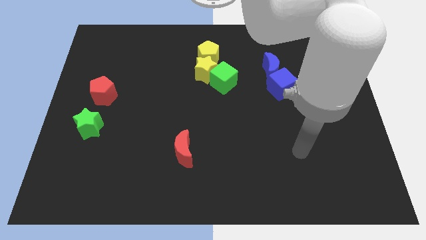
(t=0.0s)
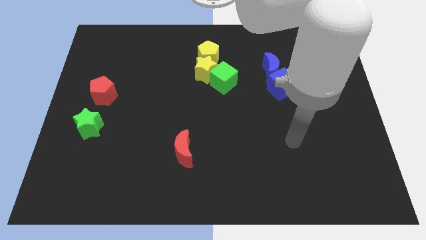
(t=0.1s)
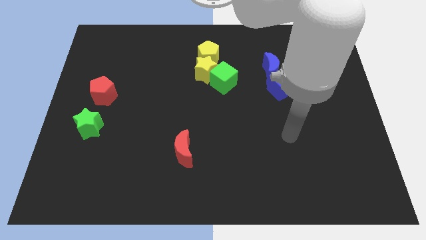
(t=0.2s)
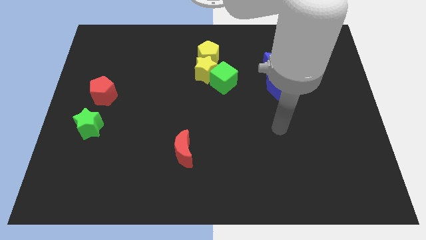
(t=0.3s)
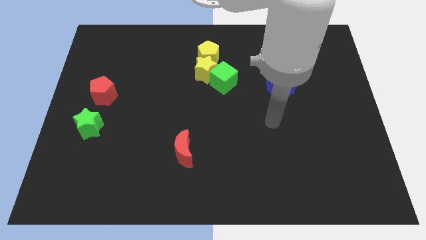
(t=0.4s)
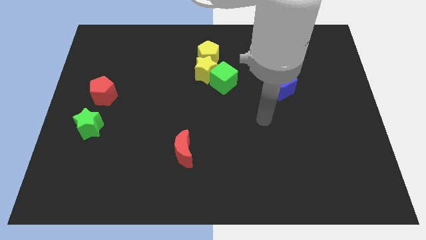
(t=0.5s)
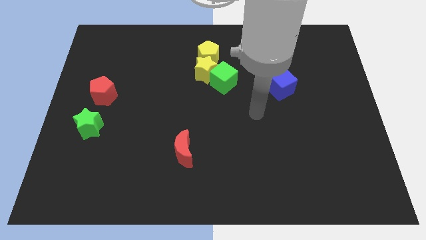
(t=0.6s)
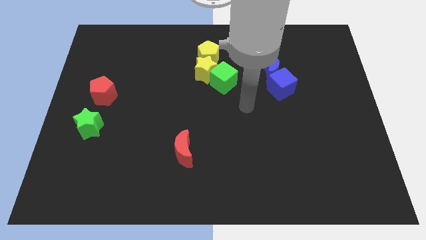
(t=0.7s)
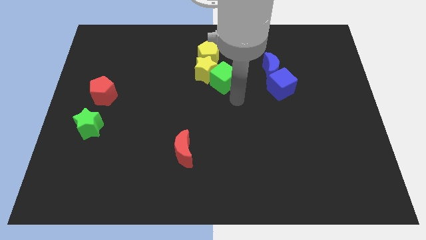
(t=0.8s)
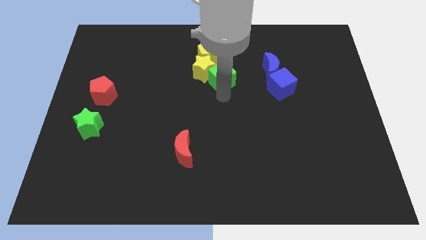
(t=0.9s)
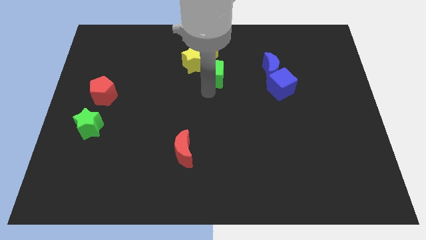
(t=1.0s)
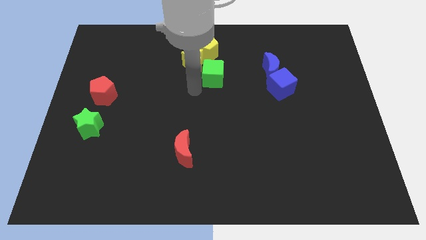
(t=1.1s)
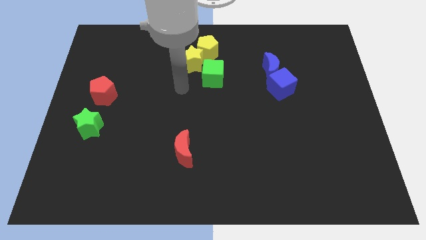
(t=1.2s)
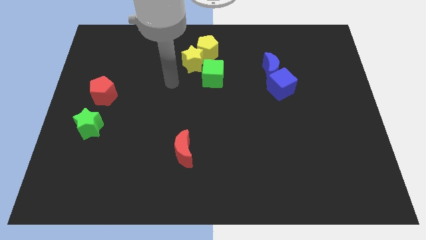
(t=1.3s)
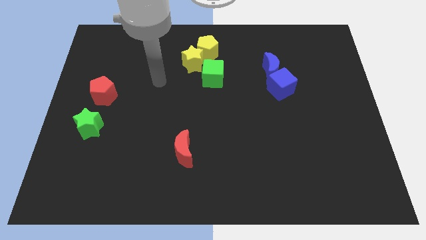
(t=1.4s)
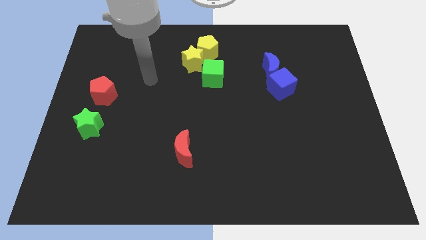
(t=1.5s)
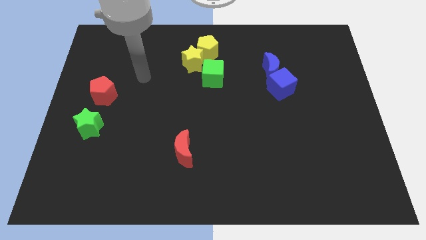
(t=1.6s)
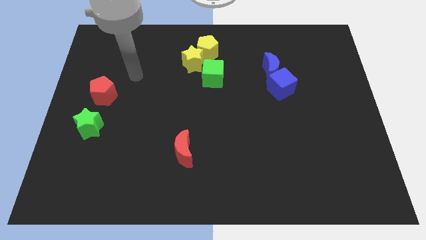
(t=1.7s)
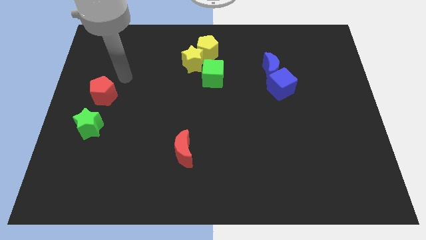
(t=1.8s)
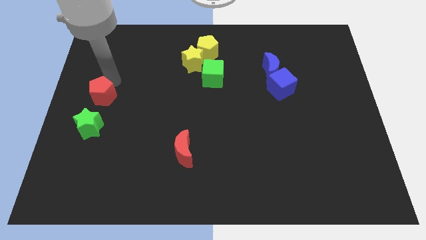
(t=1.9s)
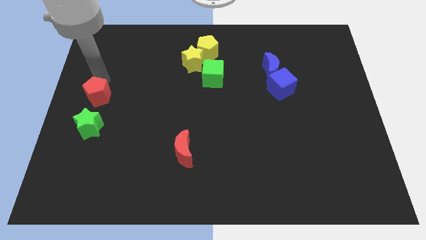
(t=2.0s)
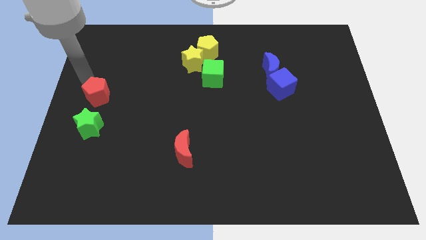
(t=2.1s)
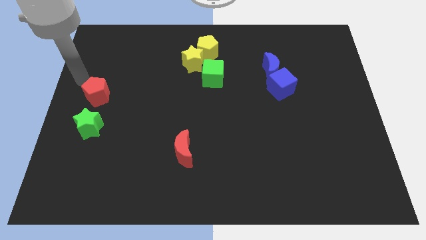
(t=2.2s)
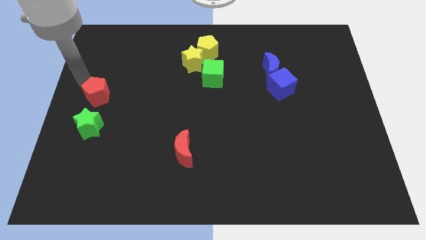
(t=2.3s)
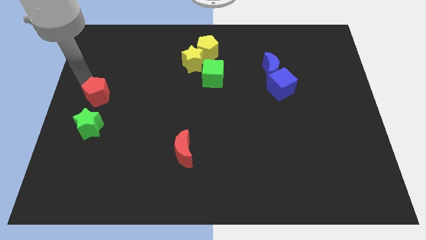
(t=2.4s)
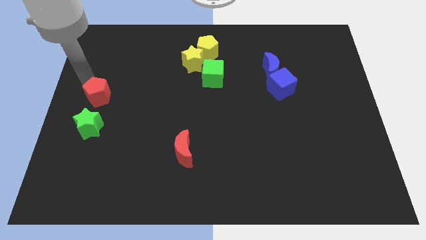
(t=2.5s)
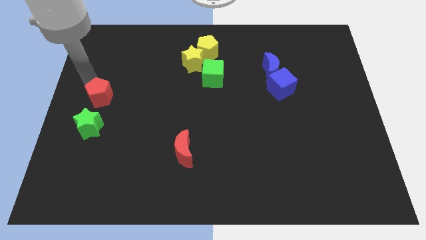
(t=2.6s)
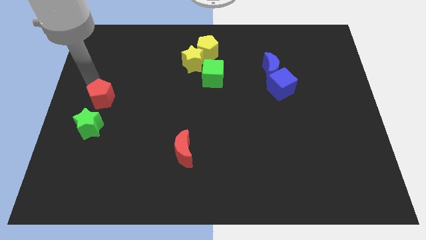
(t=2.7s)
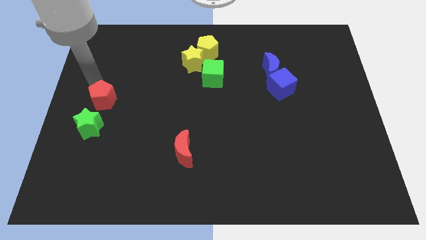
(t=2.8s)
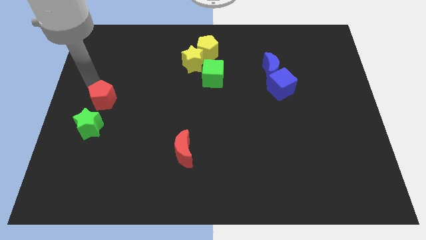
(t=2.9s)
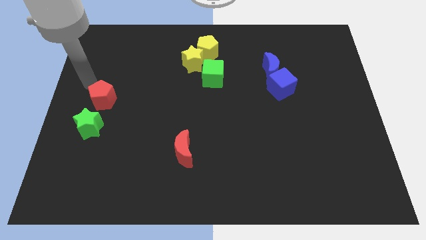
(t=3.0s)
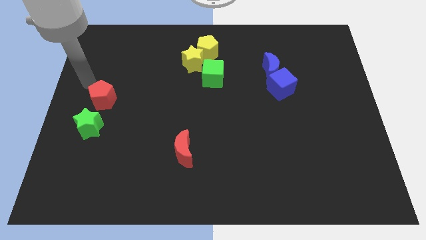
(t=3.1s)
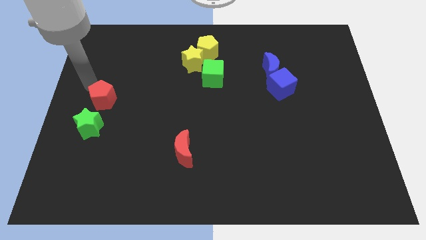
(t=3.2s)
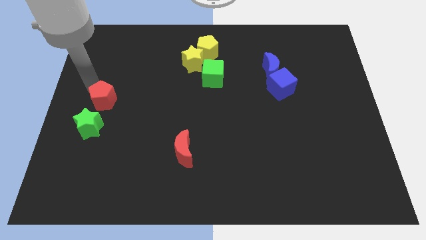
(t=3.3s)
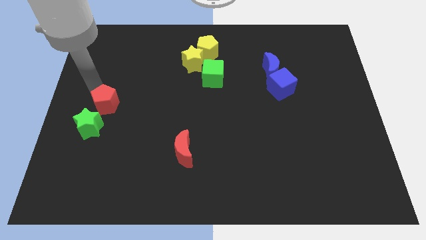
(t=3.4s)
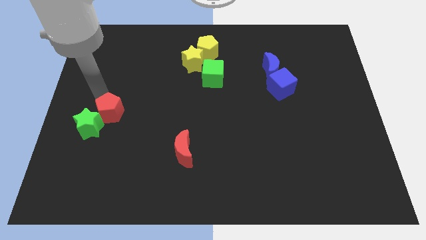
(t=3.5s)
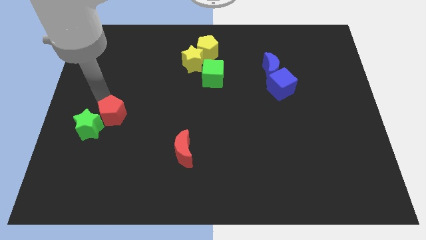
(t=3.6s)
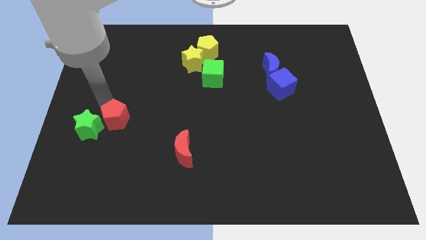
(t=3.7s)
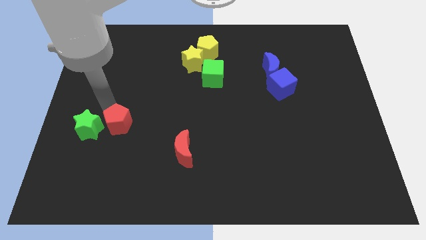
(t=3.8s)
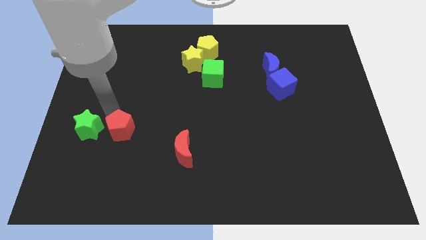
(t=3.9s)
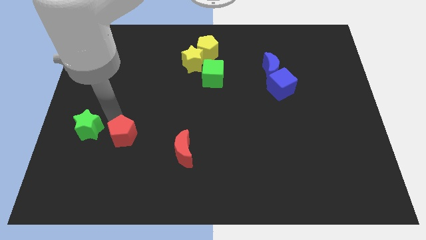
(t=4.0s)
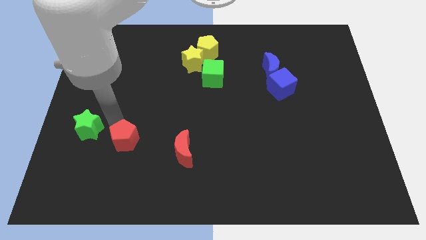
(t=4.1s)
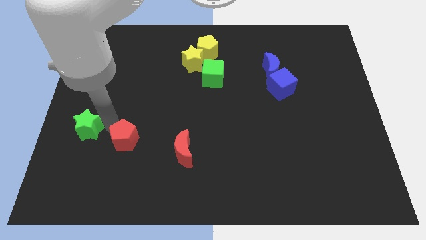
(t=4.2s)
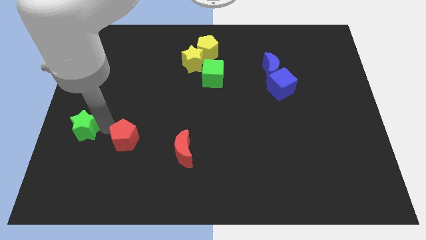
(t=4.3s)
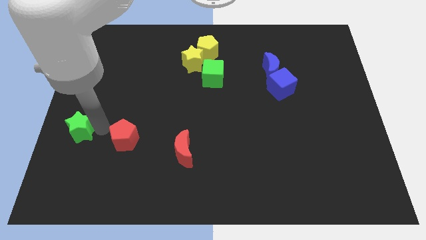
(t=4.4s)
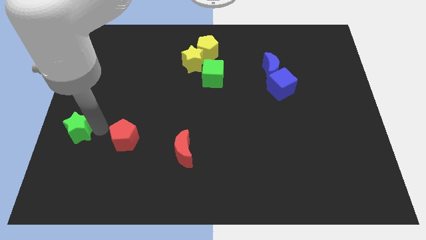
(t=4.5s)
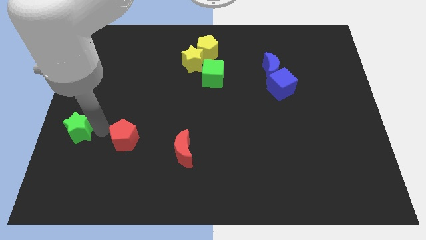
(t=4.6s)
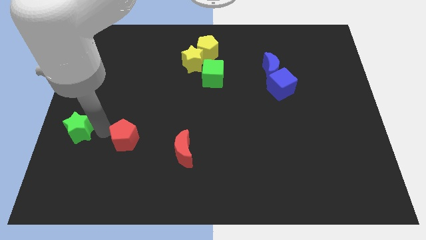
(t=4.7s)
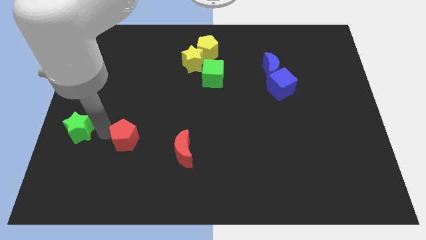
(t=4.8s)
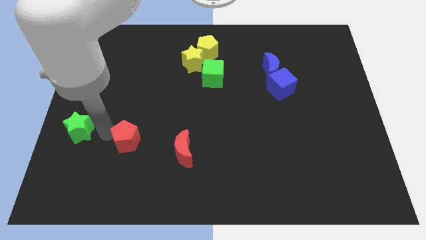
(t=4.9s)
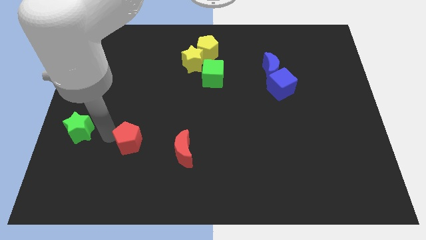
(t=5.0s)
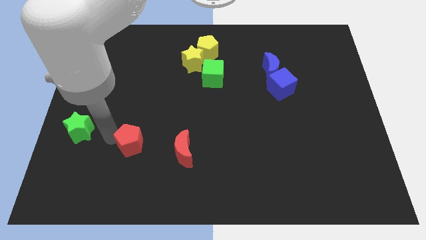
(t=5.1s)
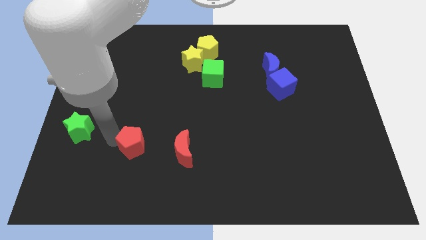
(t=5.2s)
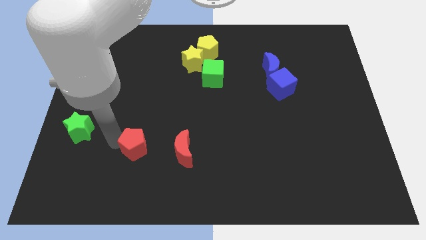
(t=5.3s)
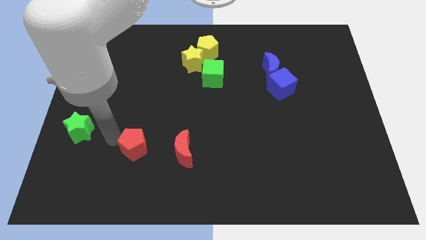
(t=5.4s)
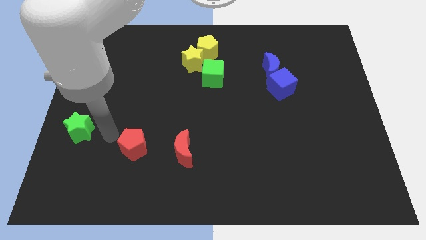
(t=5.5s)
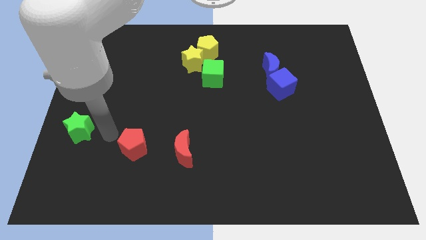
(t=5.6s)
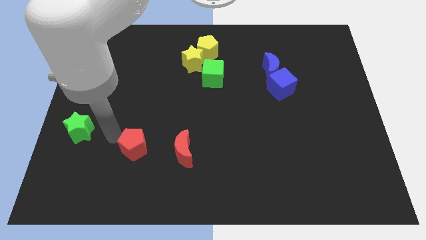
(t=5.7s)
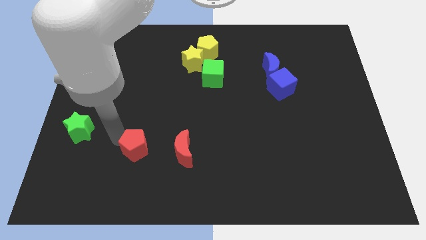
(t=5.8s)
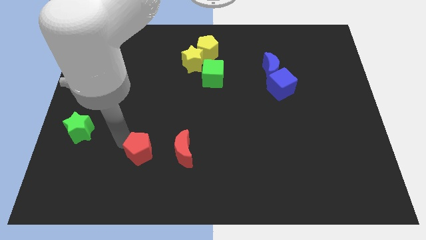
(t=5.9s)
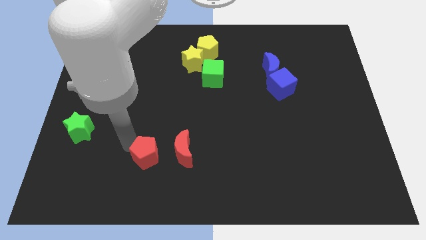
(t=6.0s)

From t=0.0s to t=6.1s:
slide the red pentagon downwards and right diagonally

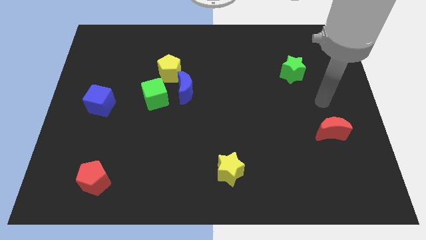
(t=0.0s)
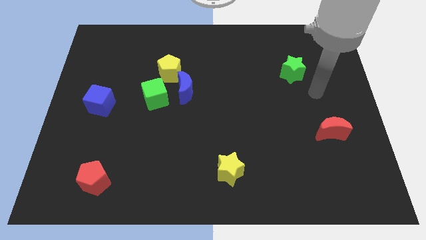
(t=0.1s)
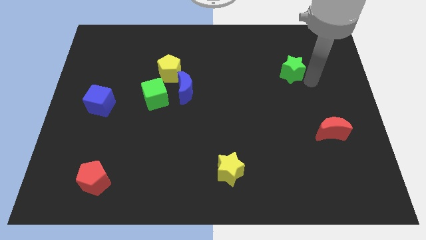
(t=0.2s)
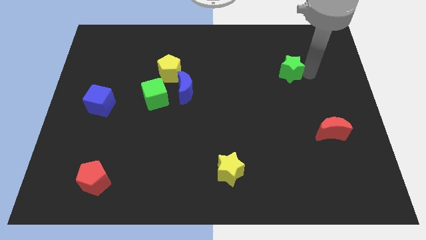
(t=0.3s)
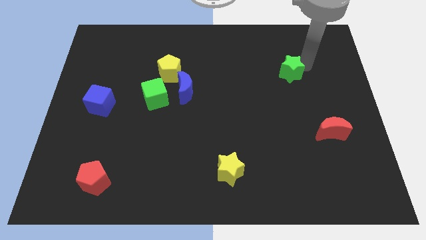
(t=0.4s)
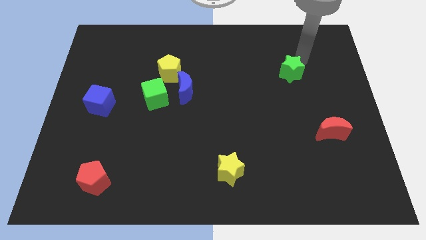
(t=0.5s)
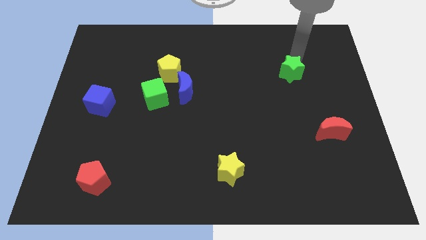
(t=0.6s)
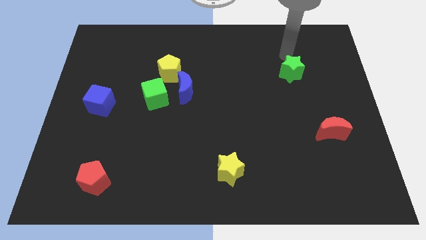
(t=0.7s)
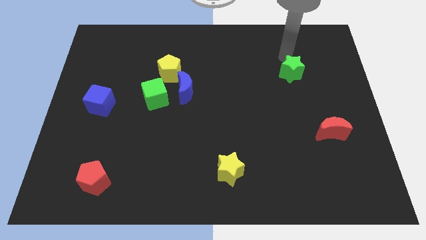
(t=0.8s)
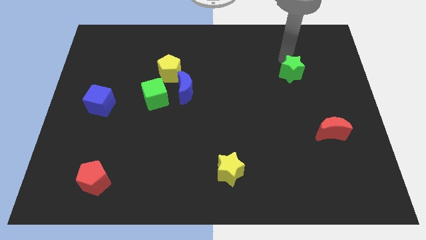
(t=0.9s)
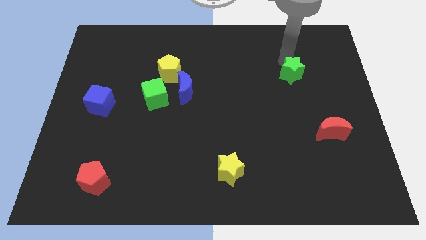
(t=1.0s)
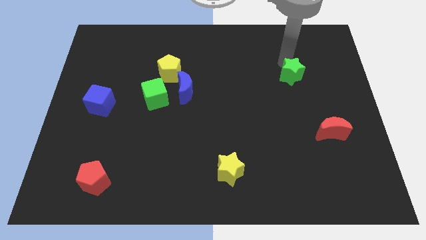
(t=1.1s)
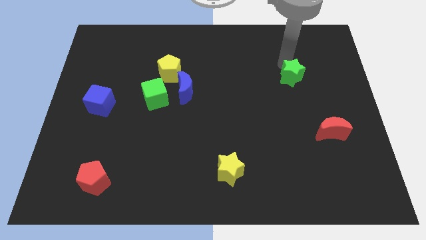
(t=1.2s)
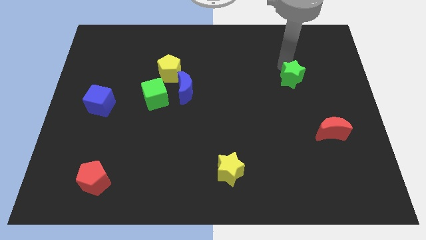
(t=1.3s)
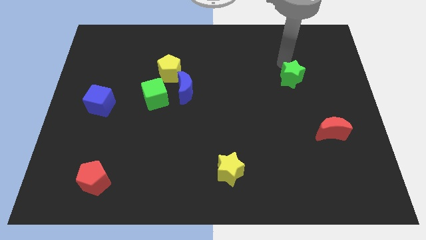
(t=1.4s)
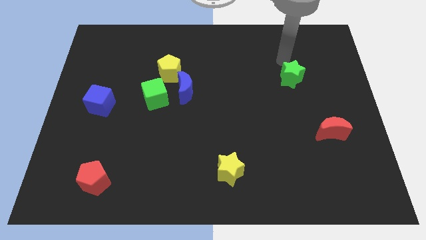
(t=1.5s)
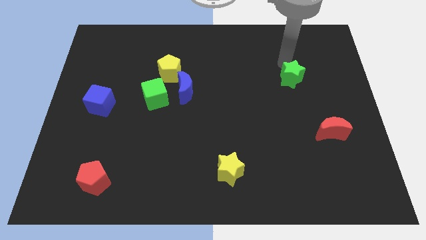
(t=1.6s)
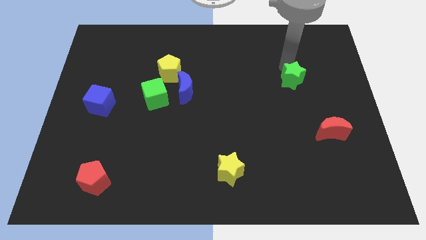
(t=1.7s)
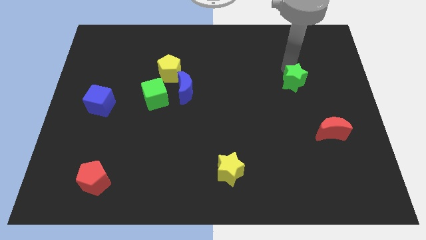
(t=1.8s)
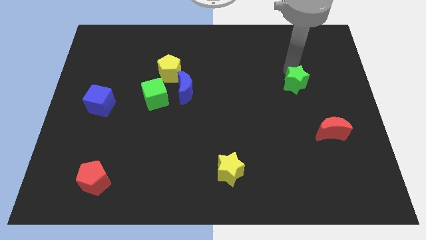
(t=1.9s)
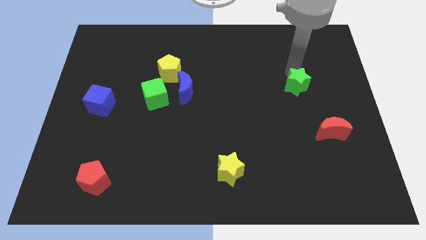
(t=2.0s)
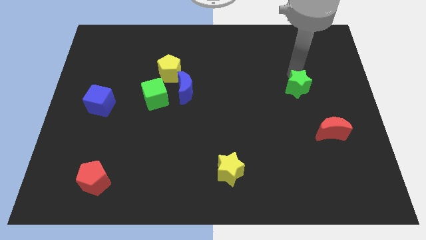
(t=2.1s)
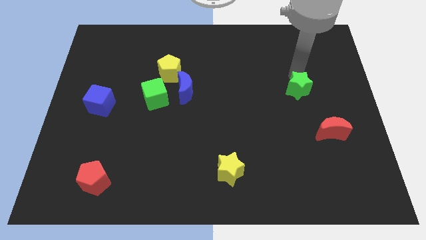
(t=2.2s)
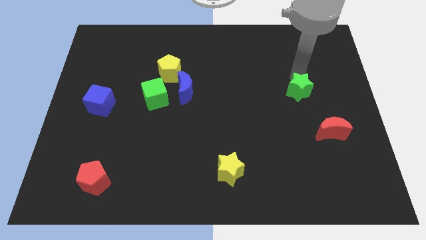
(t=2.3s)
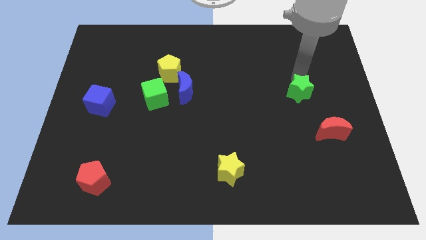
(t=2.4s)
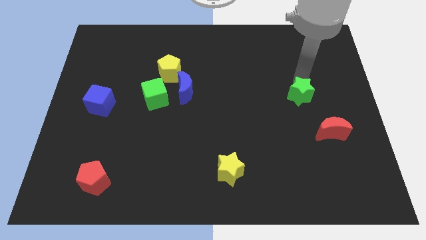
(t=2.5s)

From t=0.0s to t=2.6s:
slide the green star a little bit downwards
